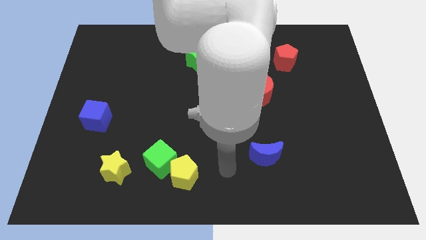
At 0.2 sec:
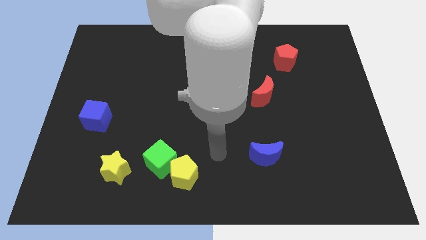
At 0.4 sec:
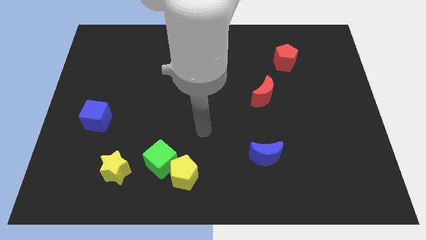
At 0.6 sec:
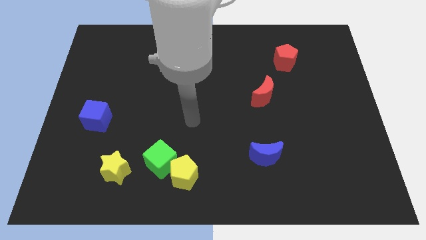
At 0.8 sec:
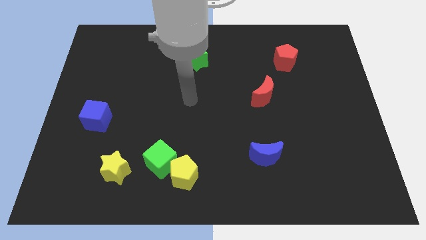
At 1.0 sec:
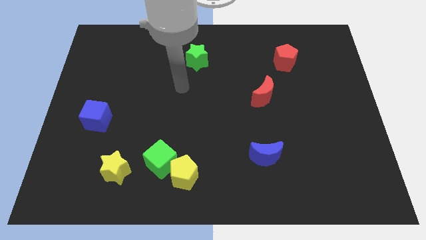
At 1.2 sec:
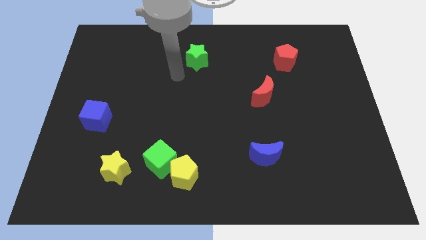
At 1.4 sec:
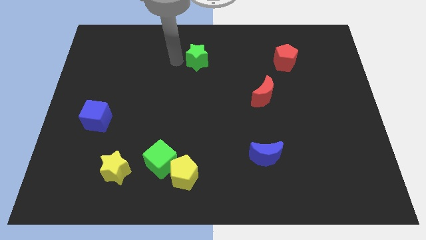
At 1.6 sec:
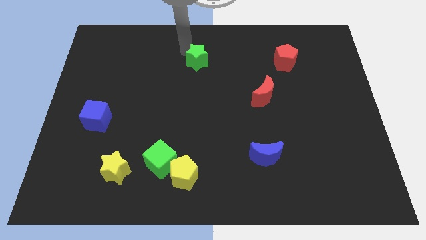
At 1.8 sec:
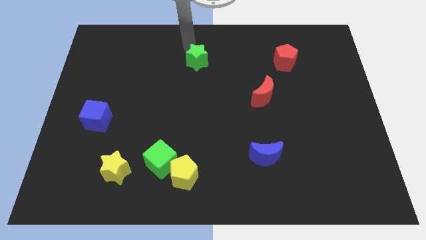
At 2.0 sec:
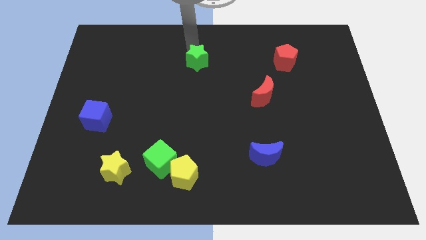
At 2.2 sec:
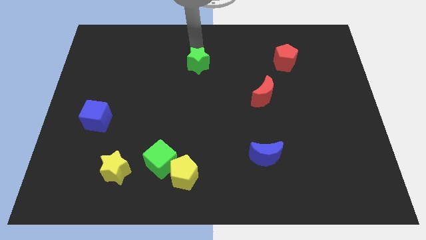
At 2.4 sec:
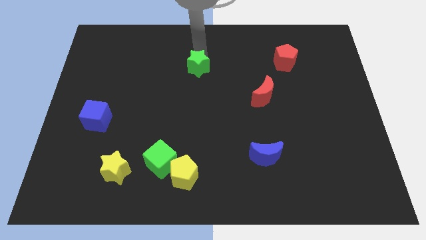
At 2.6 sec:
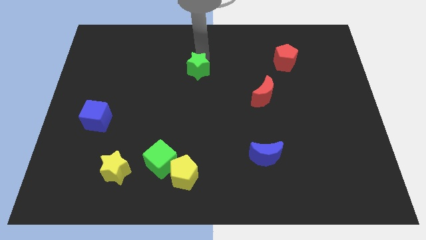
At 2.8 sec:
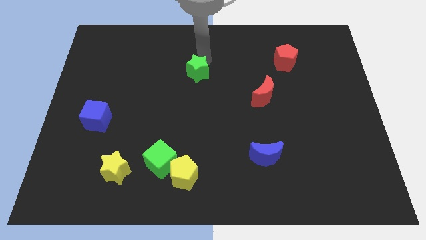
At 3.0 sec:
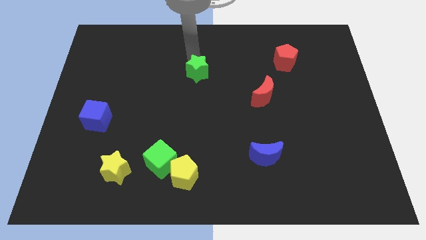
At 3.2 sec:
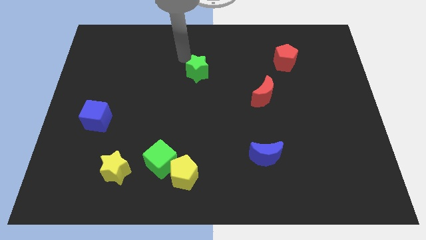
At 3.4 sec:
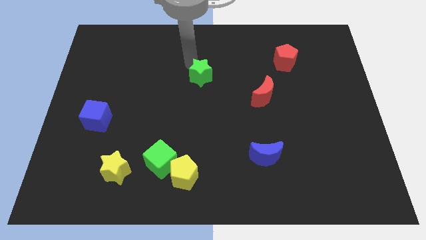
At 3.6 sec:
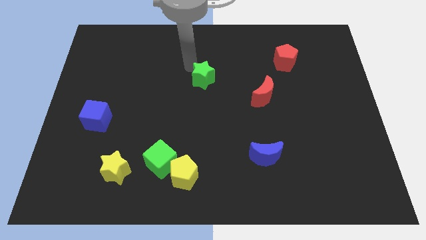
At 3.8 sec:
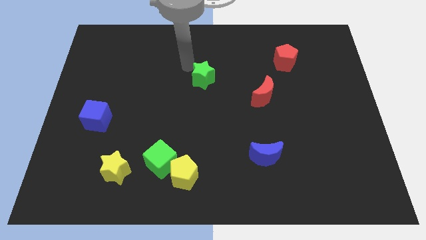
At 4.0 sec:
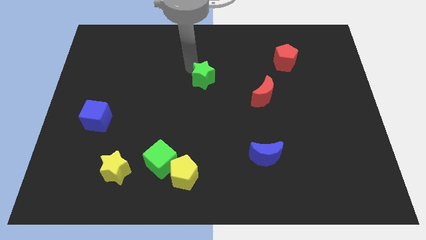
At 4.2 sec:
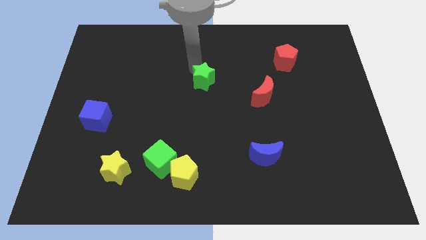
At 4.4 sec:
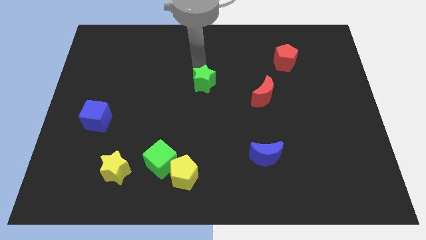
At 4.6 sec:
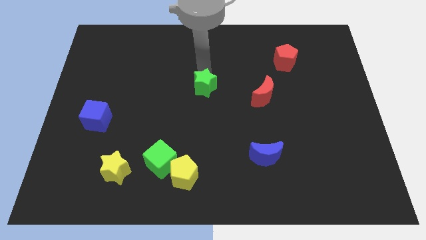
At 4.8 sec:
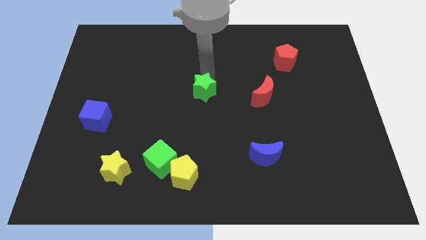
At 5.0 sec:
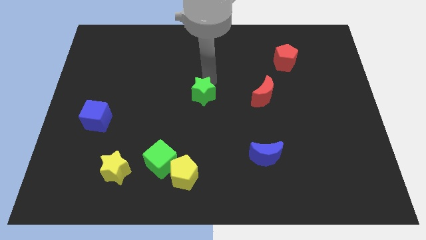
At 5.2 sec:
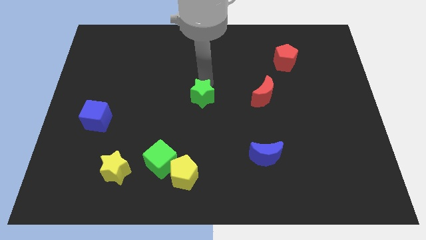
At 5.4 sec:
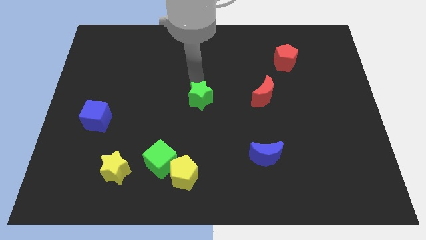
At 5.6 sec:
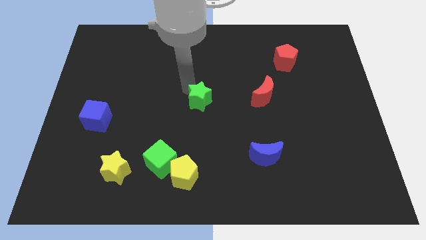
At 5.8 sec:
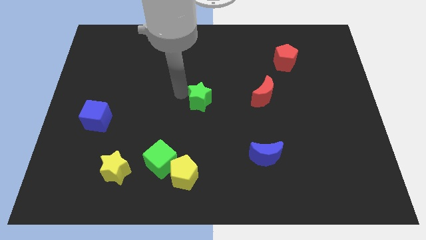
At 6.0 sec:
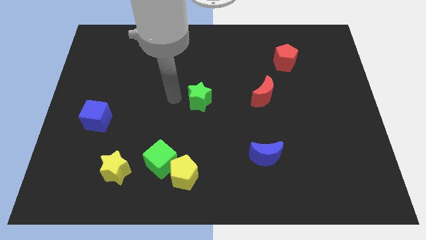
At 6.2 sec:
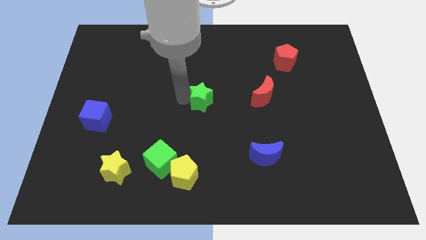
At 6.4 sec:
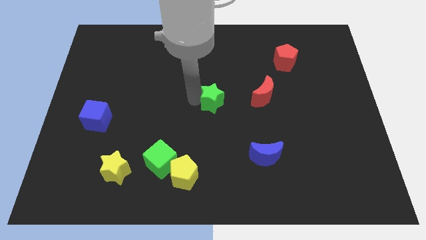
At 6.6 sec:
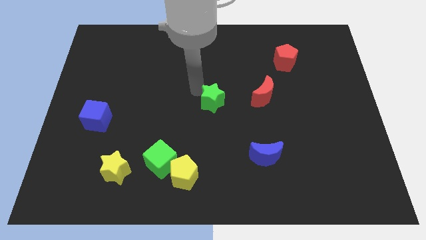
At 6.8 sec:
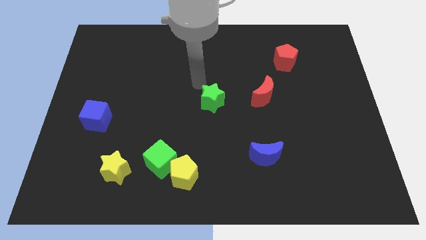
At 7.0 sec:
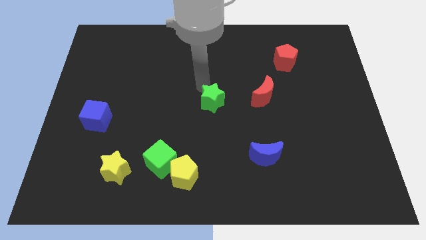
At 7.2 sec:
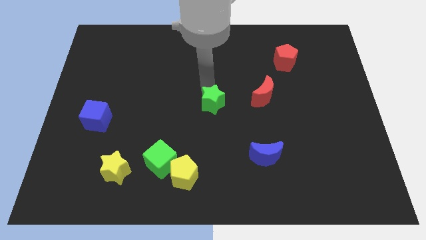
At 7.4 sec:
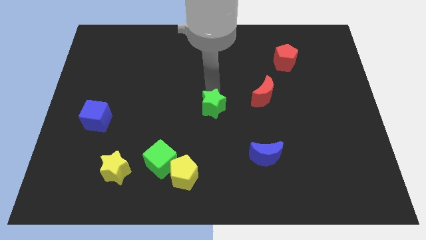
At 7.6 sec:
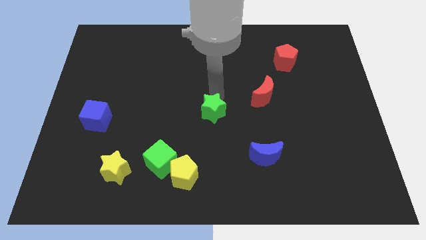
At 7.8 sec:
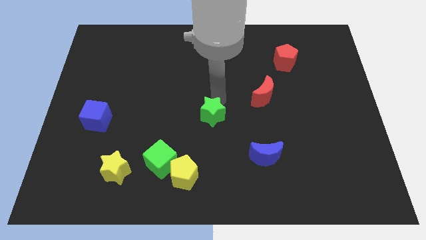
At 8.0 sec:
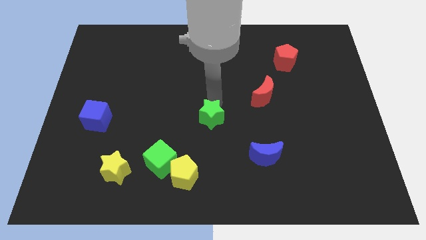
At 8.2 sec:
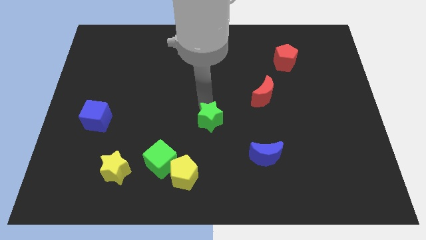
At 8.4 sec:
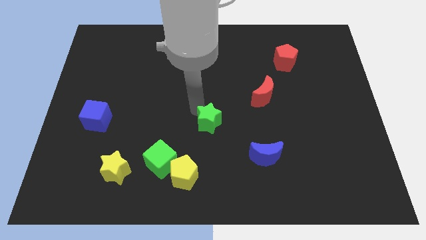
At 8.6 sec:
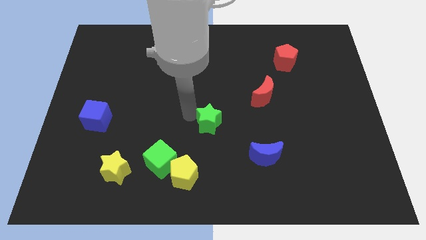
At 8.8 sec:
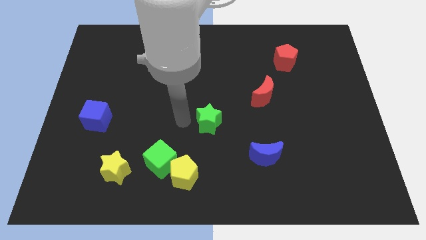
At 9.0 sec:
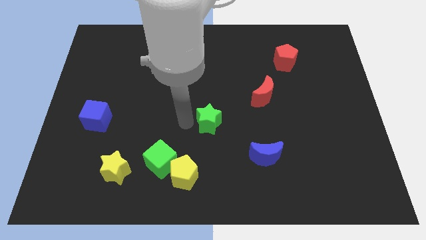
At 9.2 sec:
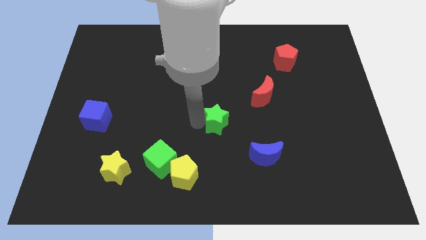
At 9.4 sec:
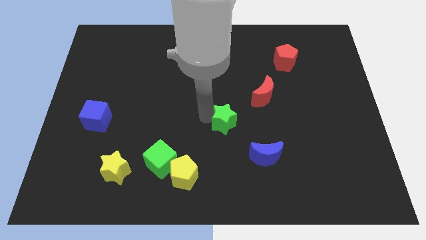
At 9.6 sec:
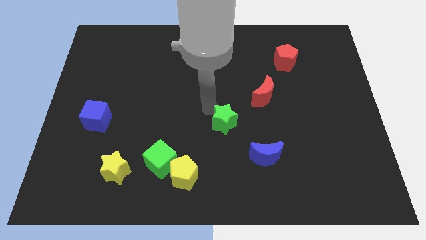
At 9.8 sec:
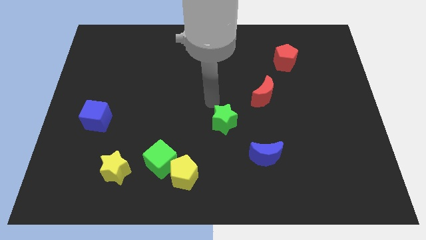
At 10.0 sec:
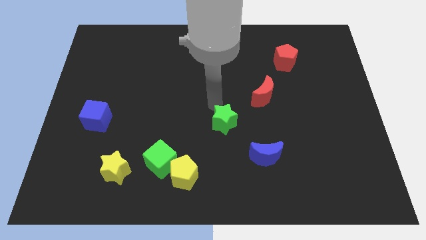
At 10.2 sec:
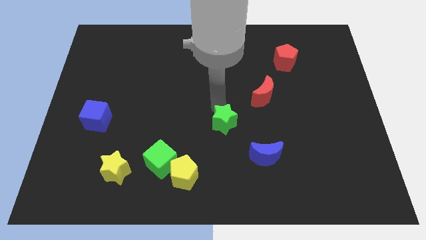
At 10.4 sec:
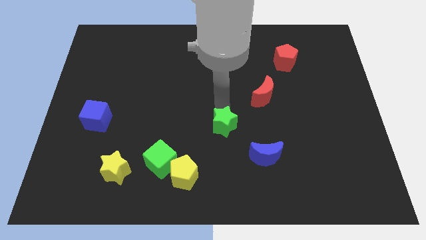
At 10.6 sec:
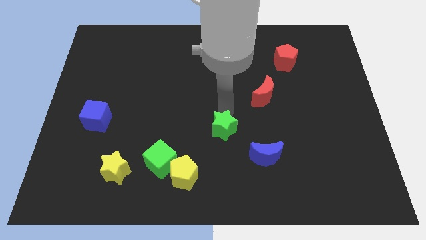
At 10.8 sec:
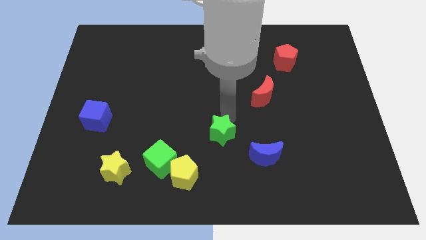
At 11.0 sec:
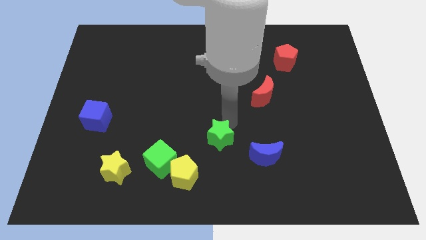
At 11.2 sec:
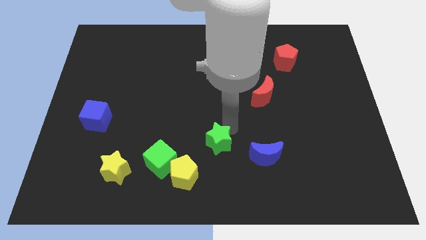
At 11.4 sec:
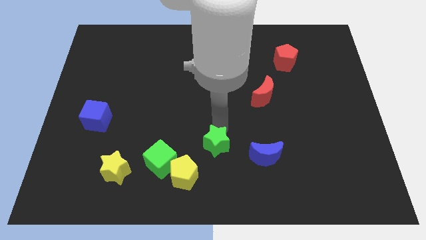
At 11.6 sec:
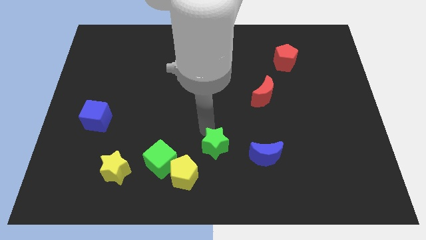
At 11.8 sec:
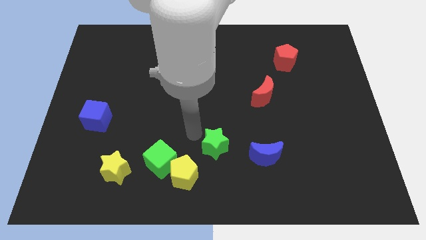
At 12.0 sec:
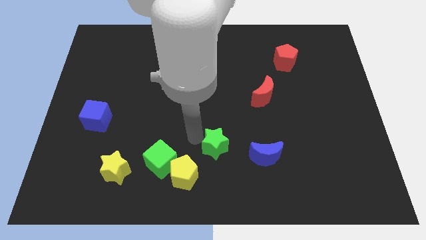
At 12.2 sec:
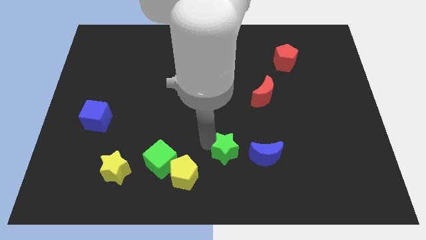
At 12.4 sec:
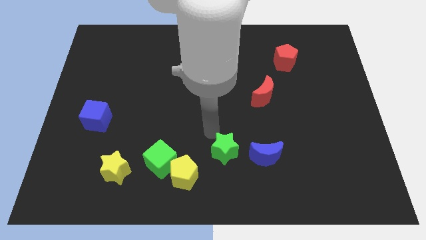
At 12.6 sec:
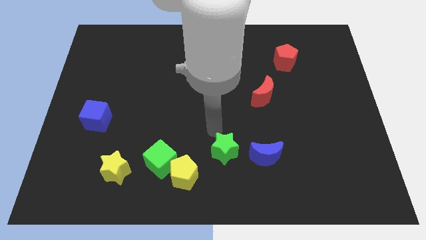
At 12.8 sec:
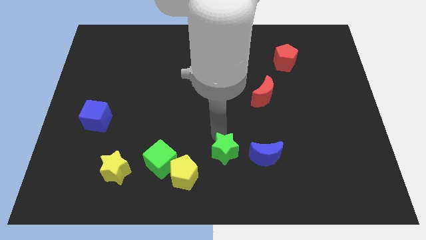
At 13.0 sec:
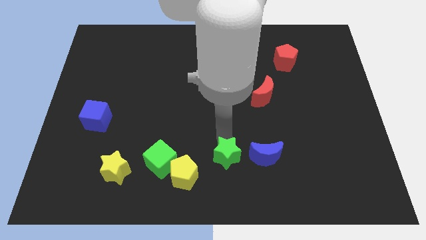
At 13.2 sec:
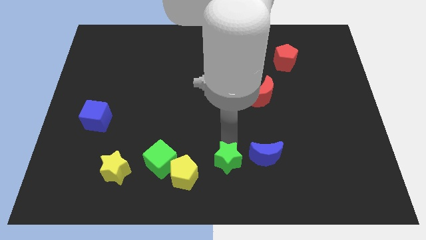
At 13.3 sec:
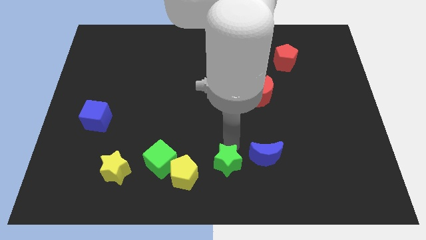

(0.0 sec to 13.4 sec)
put the green star to the bottom left side of the blue moon
